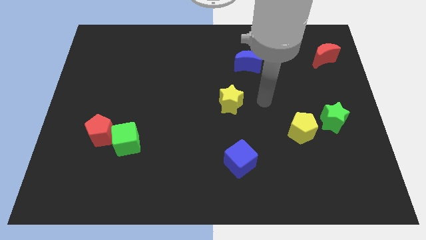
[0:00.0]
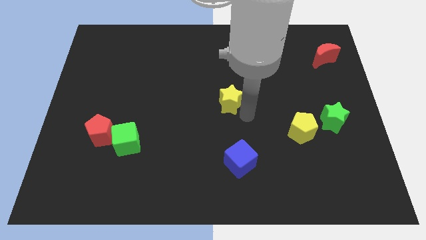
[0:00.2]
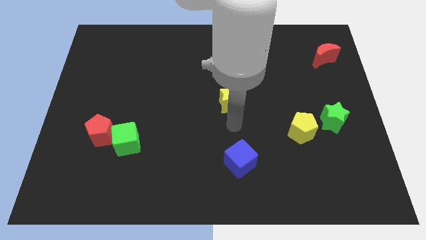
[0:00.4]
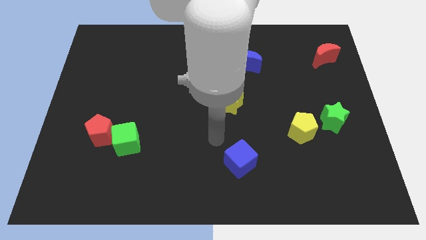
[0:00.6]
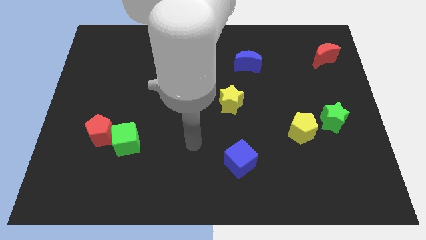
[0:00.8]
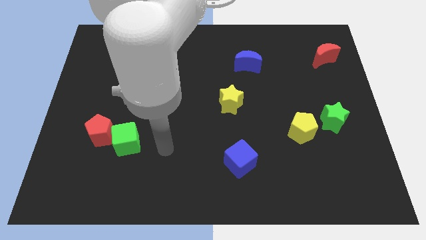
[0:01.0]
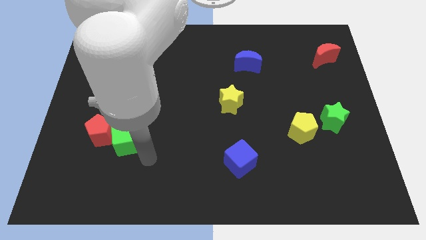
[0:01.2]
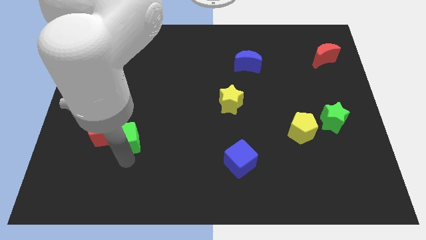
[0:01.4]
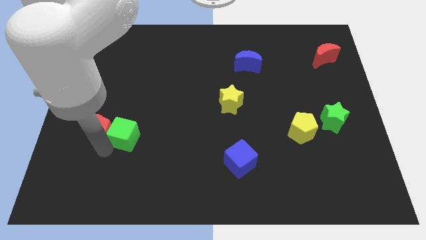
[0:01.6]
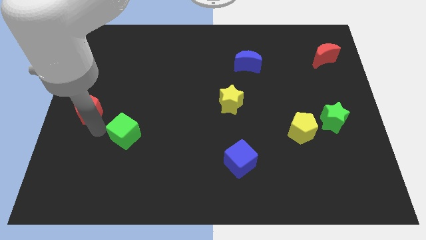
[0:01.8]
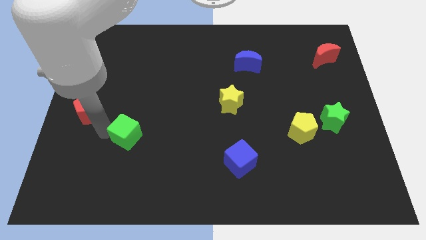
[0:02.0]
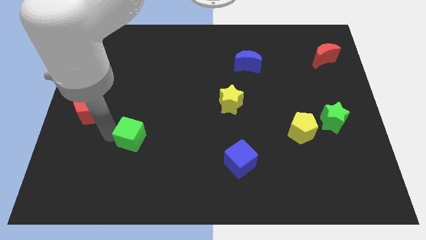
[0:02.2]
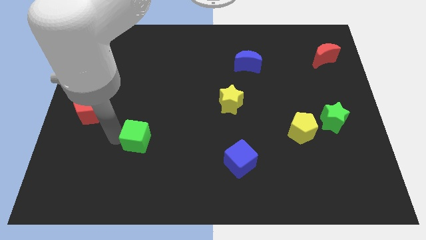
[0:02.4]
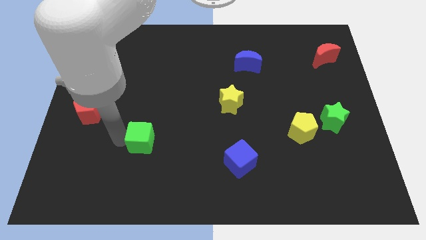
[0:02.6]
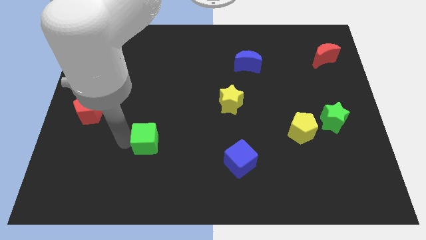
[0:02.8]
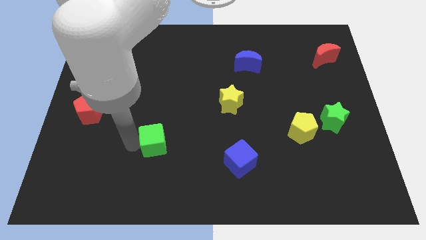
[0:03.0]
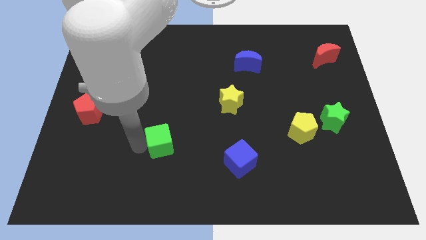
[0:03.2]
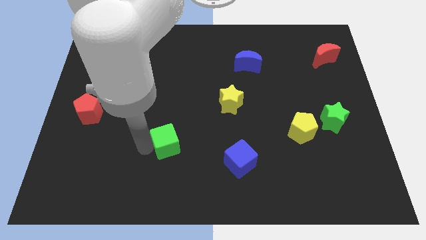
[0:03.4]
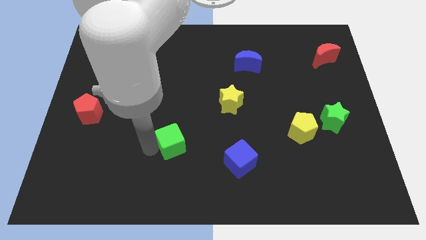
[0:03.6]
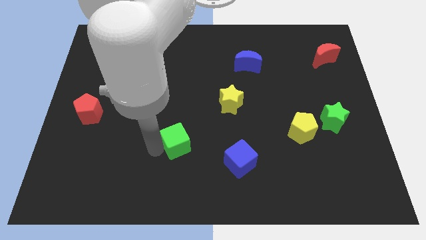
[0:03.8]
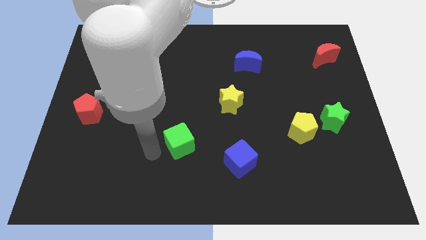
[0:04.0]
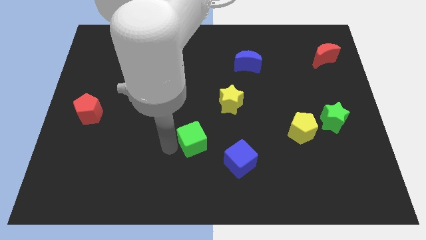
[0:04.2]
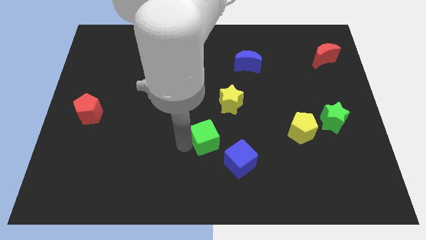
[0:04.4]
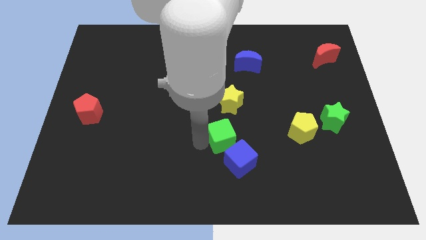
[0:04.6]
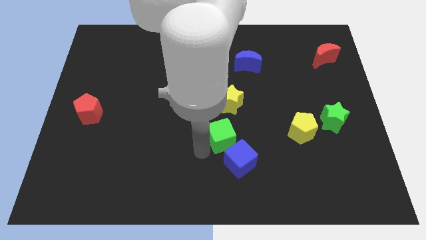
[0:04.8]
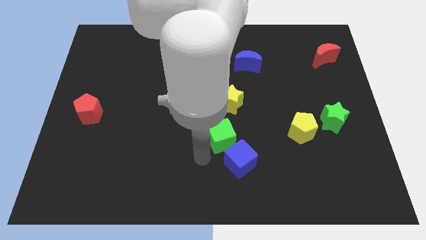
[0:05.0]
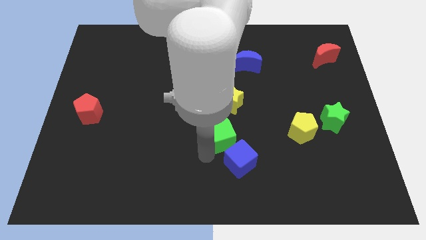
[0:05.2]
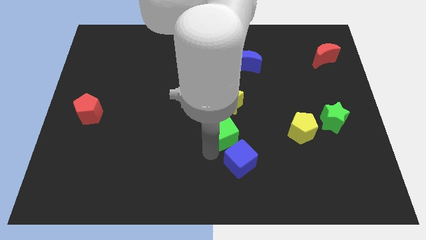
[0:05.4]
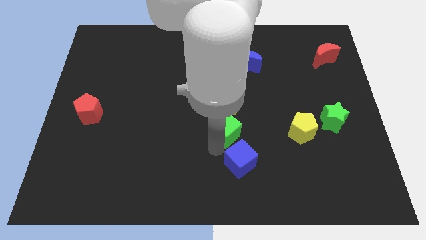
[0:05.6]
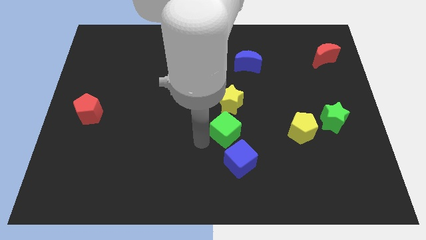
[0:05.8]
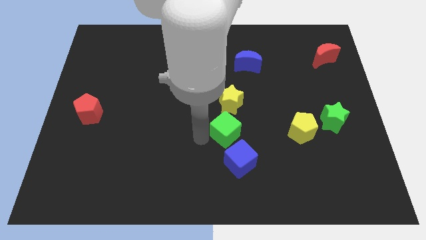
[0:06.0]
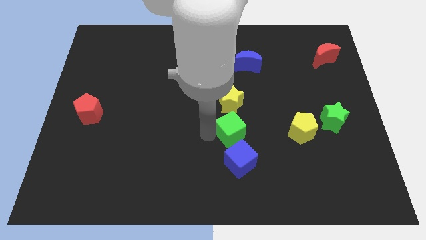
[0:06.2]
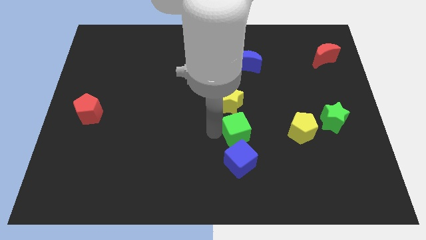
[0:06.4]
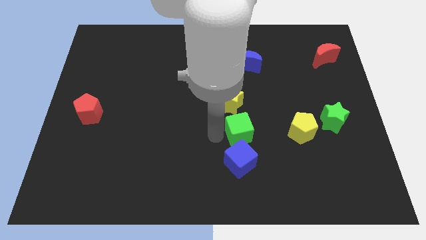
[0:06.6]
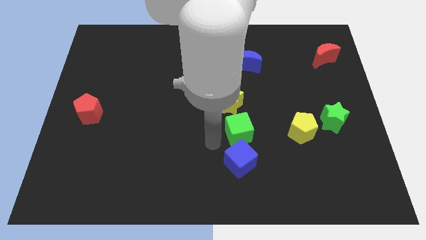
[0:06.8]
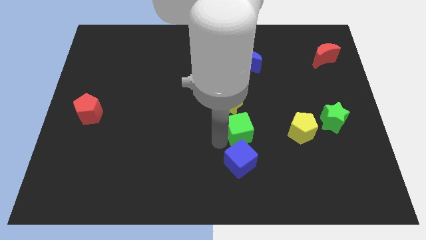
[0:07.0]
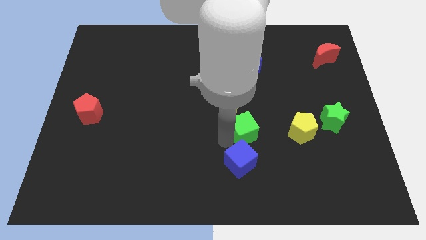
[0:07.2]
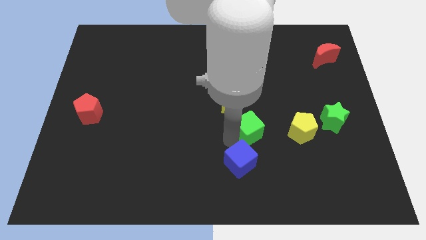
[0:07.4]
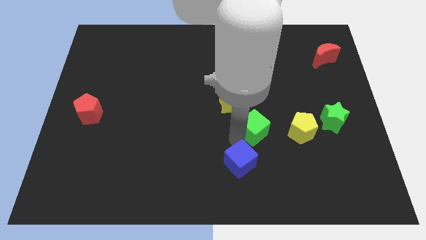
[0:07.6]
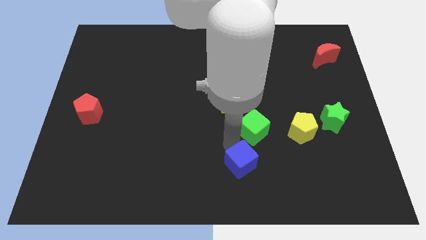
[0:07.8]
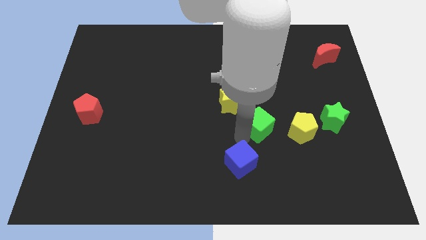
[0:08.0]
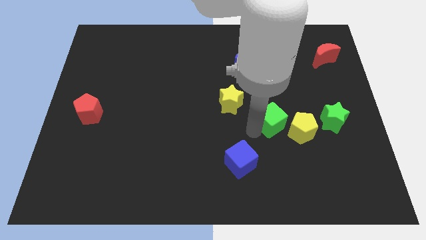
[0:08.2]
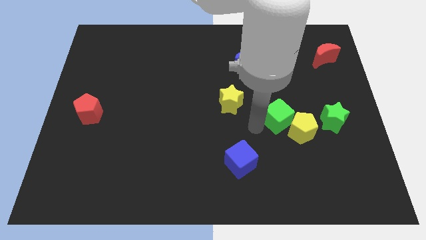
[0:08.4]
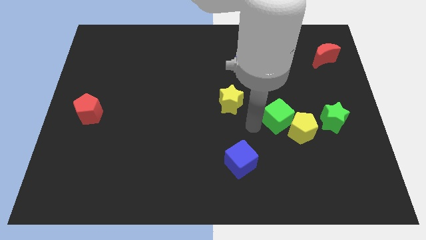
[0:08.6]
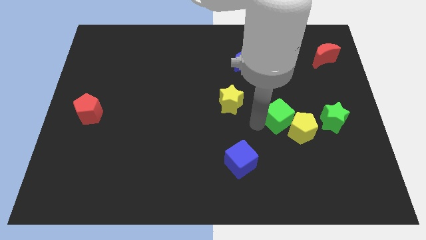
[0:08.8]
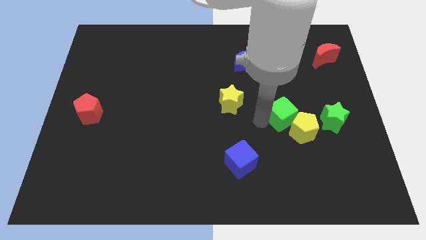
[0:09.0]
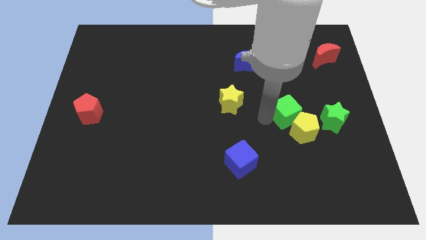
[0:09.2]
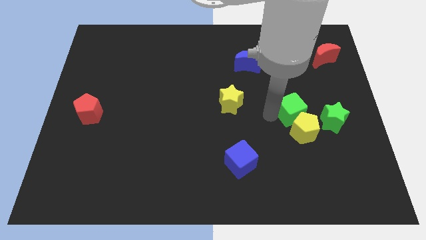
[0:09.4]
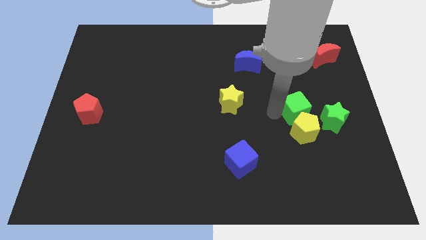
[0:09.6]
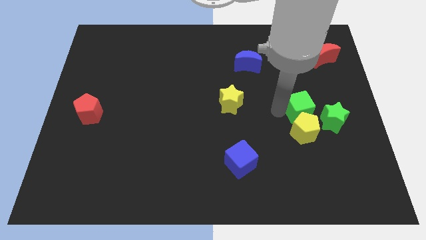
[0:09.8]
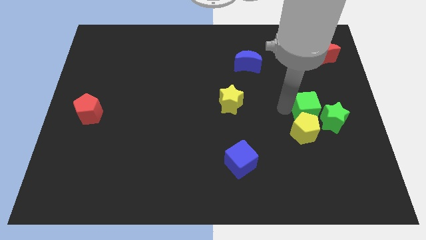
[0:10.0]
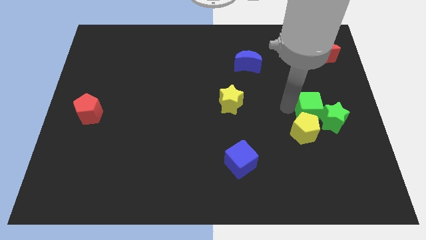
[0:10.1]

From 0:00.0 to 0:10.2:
move the green cube next to the green star

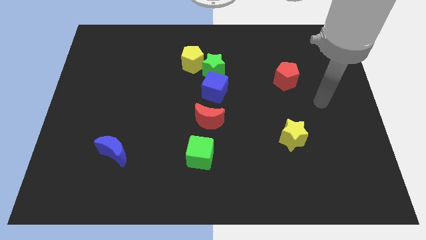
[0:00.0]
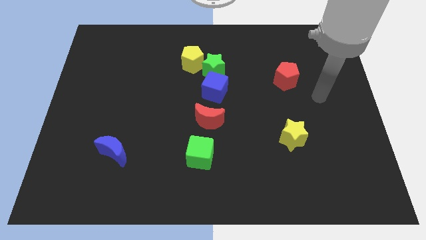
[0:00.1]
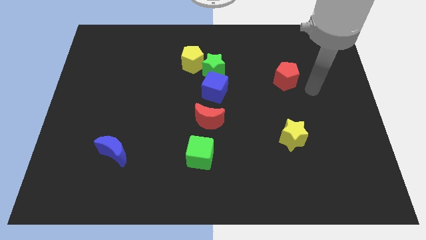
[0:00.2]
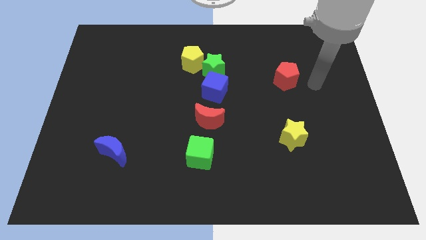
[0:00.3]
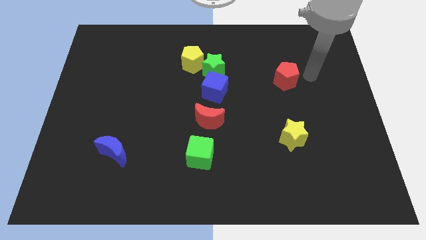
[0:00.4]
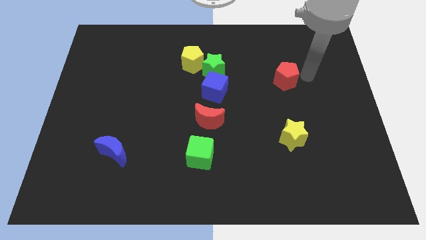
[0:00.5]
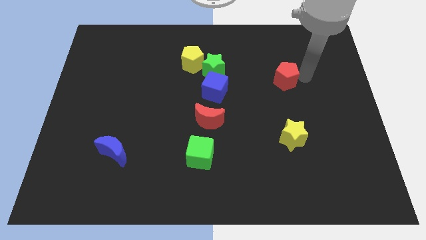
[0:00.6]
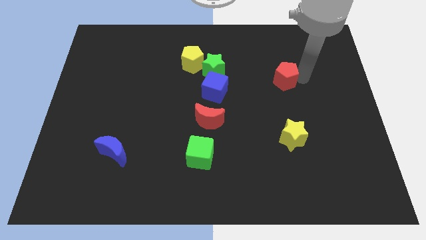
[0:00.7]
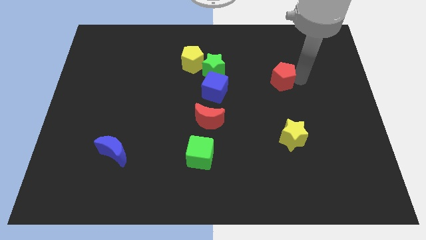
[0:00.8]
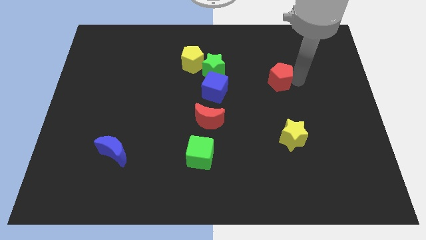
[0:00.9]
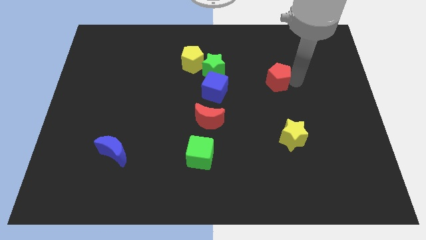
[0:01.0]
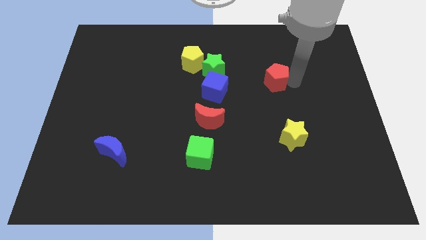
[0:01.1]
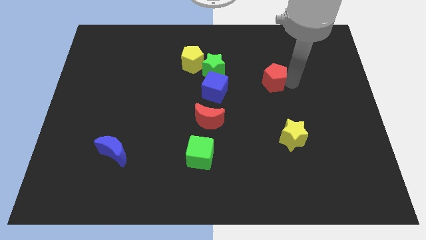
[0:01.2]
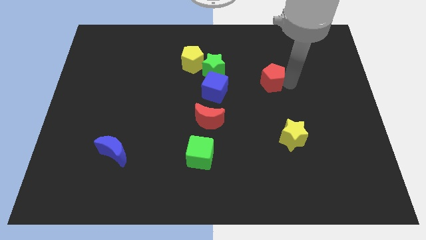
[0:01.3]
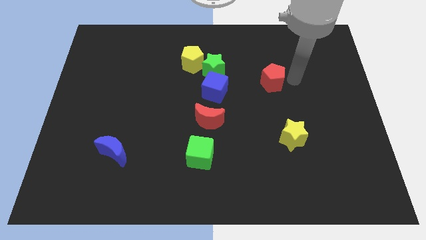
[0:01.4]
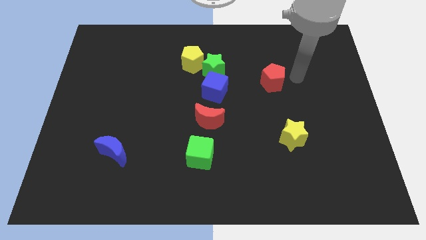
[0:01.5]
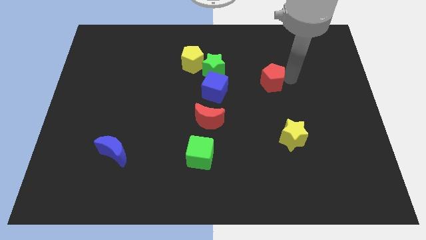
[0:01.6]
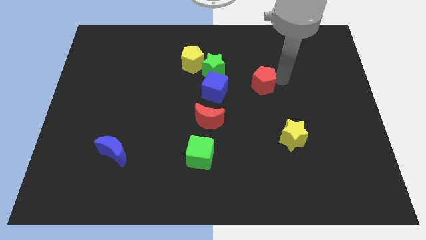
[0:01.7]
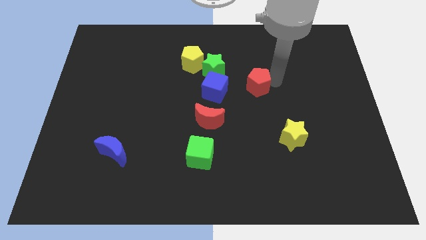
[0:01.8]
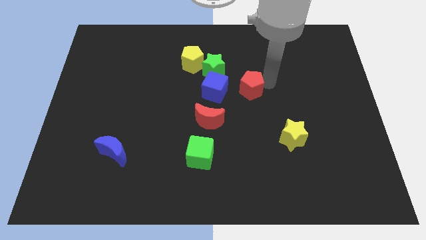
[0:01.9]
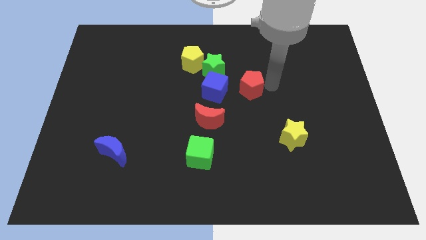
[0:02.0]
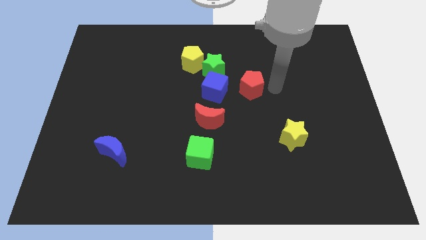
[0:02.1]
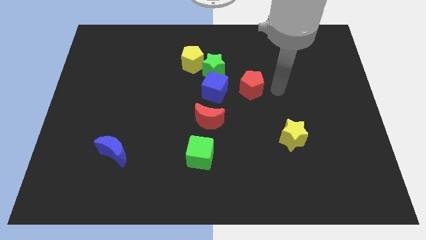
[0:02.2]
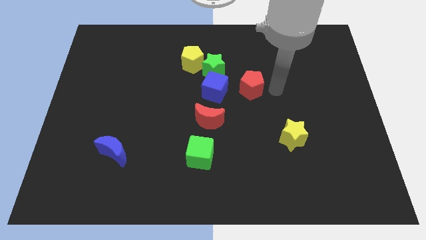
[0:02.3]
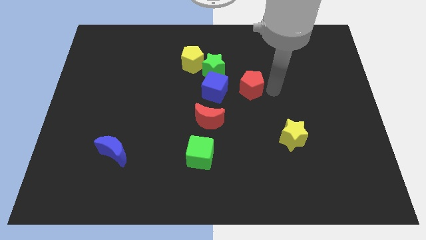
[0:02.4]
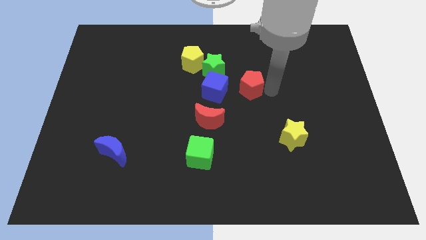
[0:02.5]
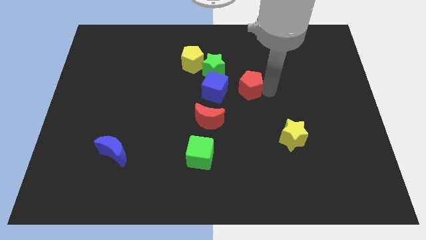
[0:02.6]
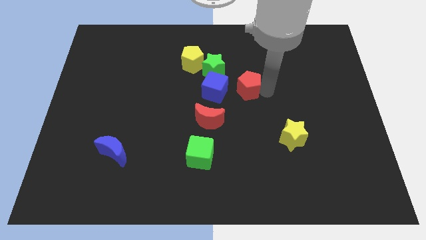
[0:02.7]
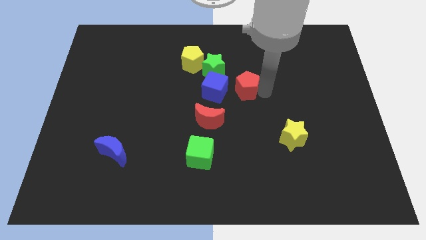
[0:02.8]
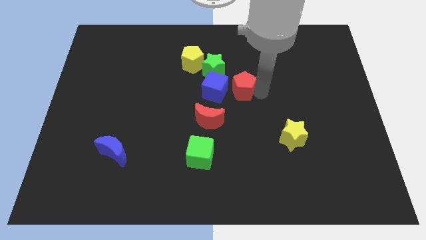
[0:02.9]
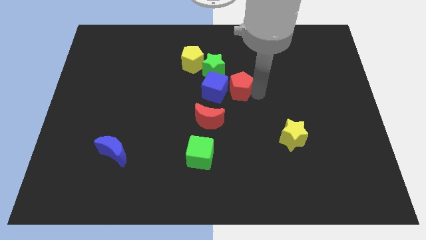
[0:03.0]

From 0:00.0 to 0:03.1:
push the red pentagon next to the blue cube
